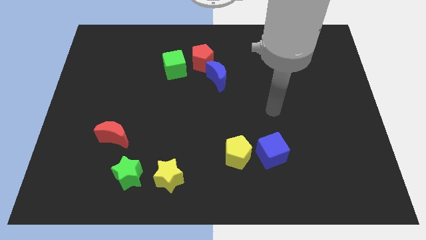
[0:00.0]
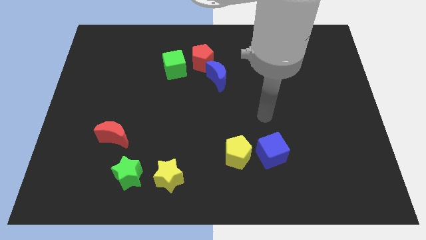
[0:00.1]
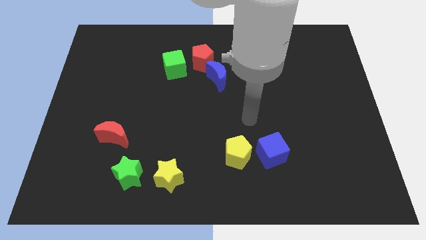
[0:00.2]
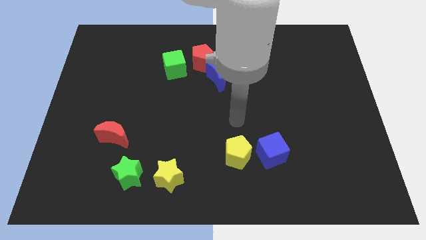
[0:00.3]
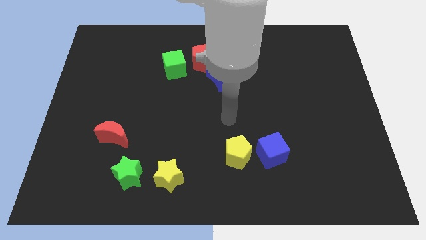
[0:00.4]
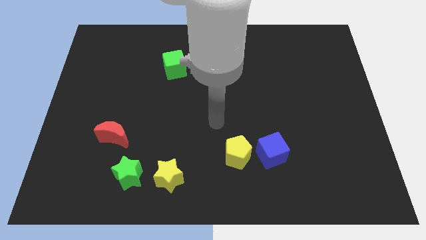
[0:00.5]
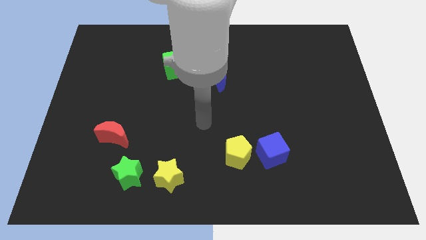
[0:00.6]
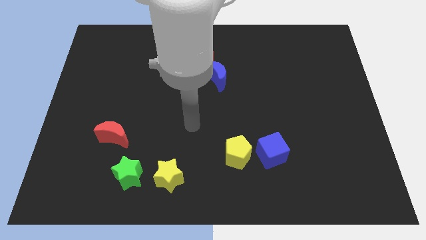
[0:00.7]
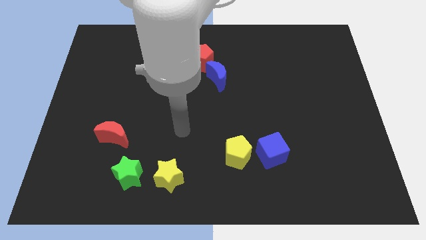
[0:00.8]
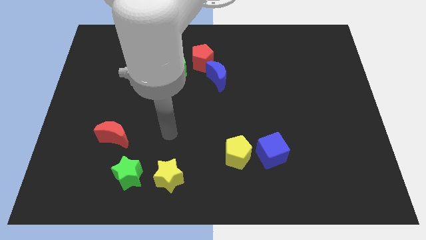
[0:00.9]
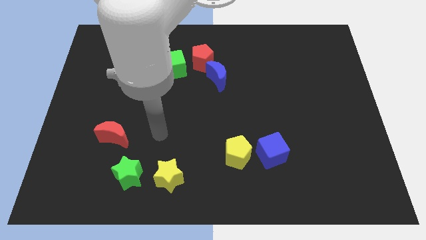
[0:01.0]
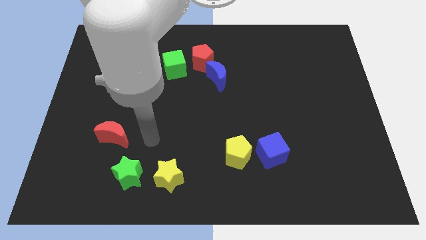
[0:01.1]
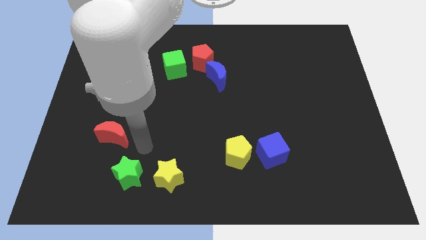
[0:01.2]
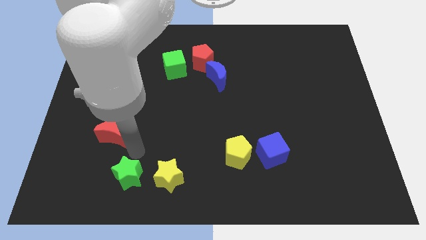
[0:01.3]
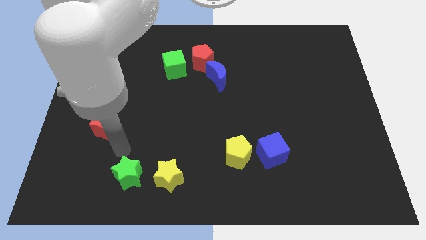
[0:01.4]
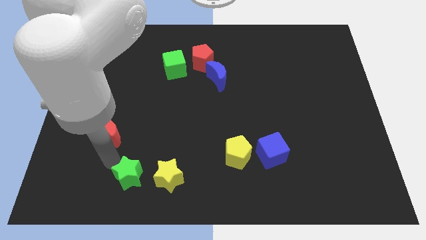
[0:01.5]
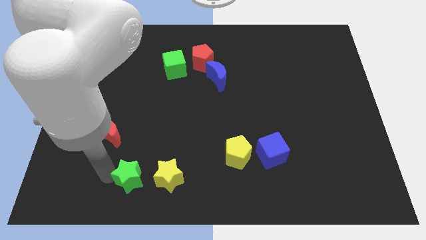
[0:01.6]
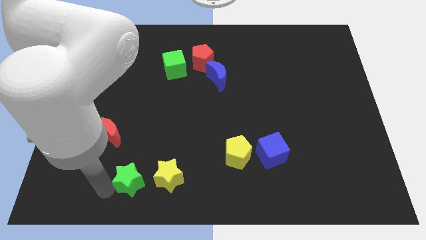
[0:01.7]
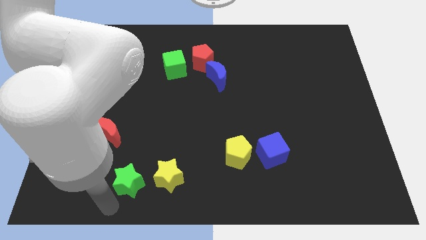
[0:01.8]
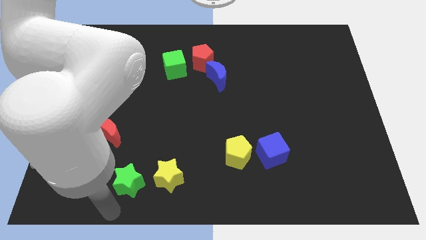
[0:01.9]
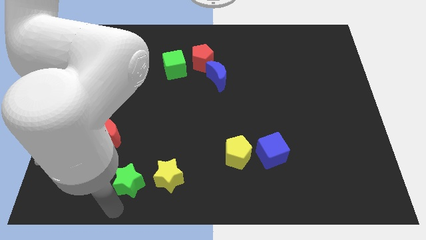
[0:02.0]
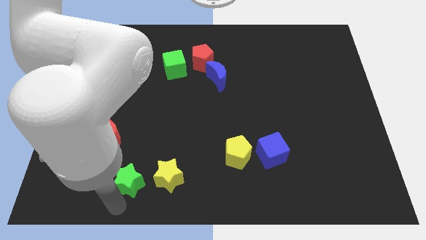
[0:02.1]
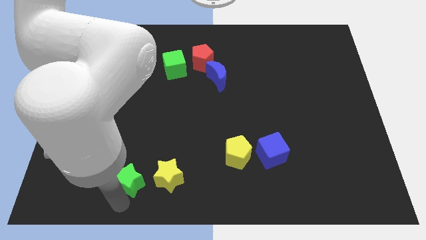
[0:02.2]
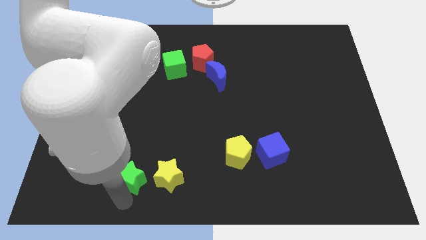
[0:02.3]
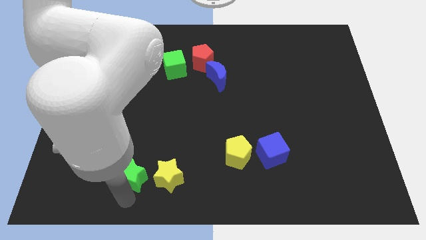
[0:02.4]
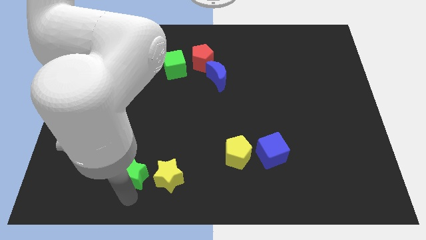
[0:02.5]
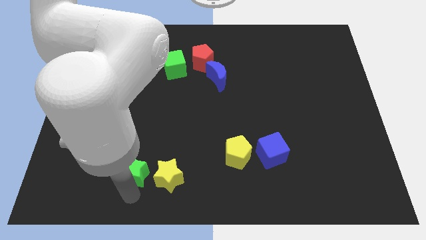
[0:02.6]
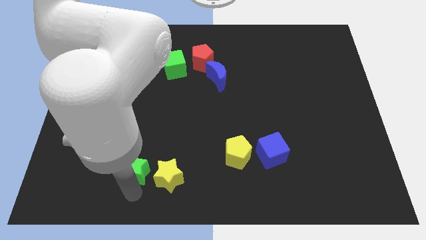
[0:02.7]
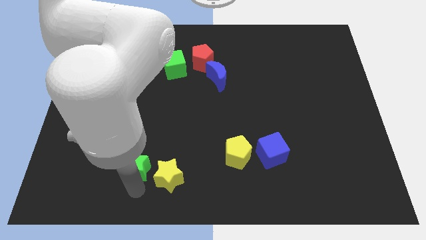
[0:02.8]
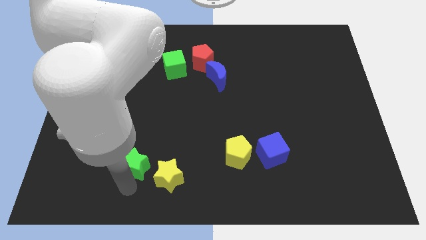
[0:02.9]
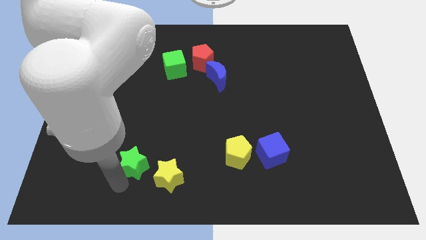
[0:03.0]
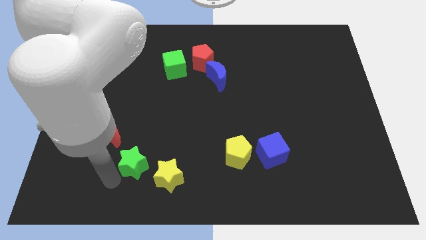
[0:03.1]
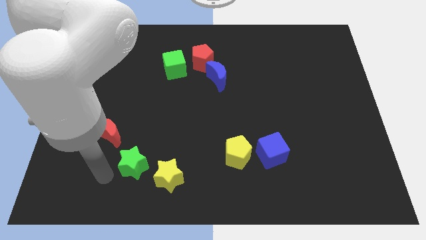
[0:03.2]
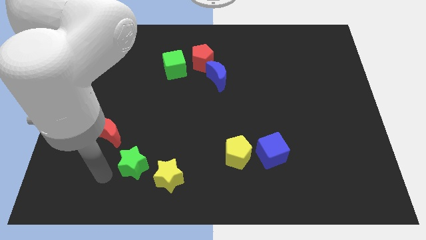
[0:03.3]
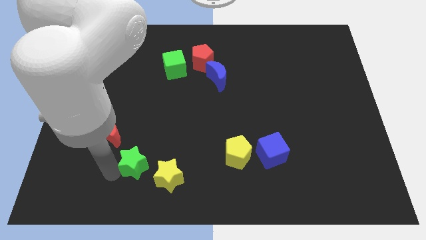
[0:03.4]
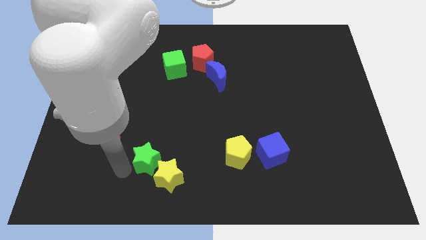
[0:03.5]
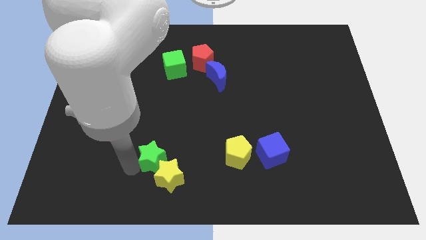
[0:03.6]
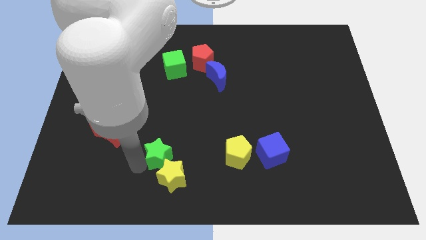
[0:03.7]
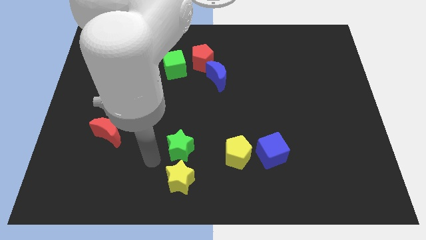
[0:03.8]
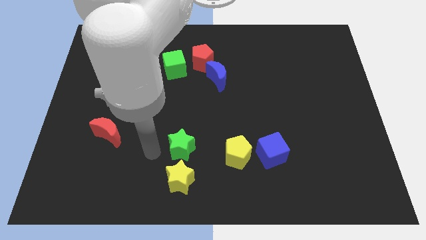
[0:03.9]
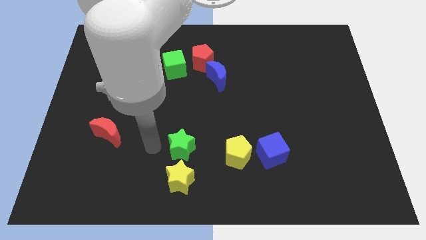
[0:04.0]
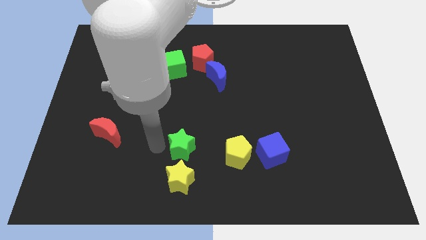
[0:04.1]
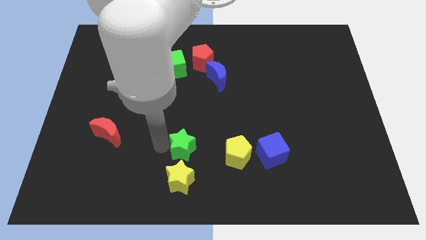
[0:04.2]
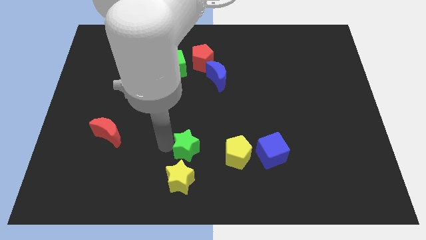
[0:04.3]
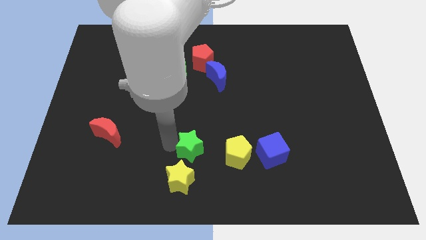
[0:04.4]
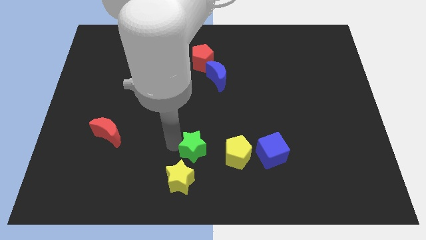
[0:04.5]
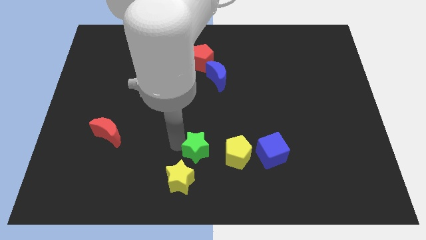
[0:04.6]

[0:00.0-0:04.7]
put the green star to the left side of the blue cube

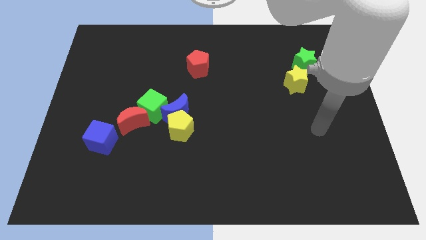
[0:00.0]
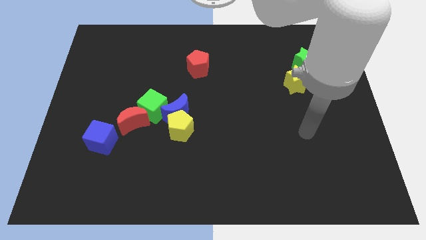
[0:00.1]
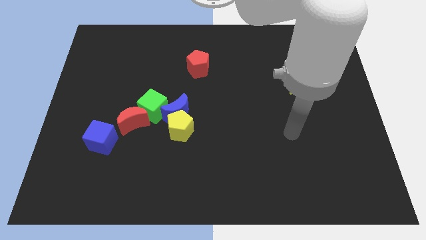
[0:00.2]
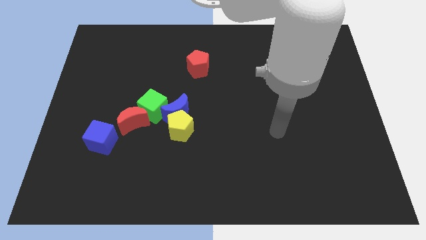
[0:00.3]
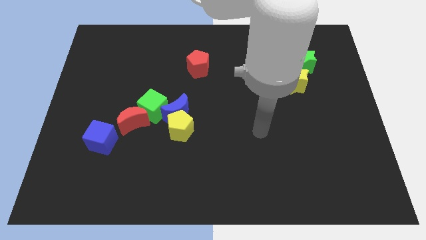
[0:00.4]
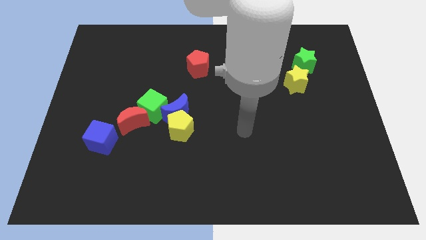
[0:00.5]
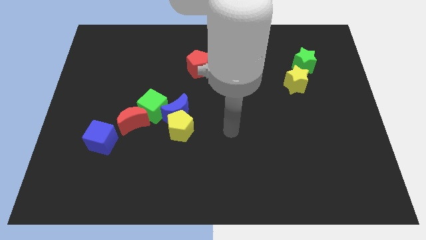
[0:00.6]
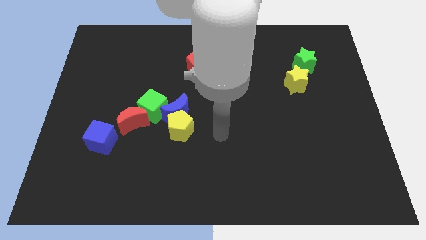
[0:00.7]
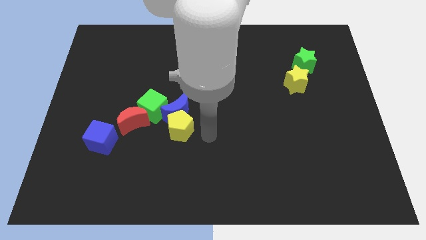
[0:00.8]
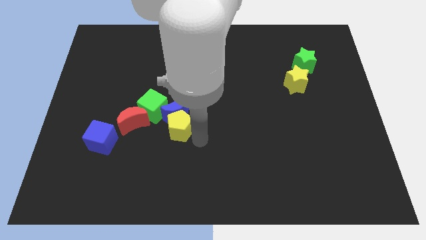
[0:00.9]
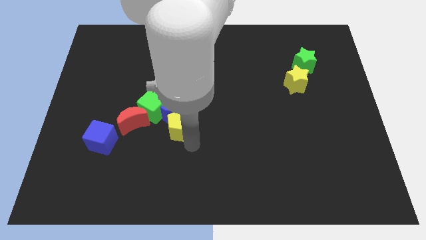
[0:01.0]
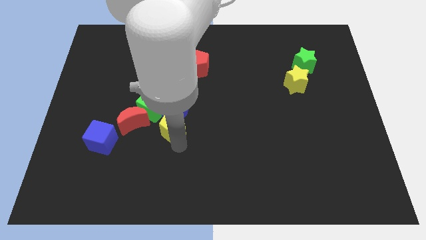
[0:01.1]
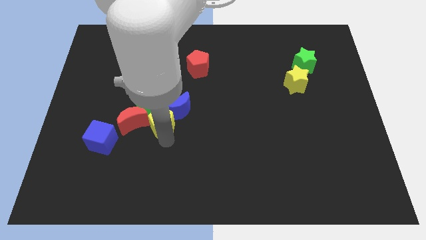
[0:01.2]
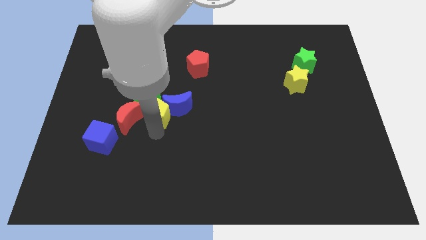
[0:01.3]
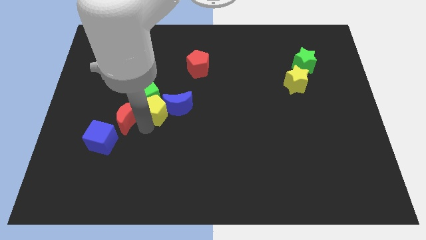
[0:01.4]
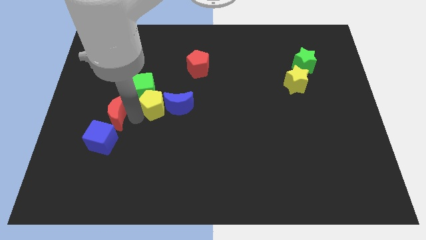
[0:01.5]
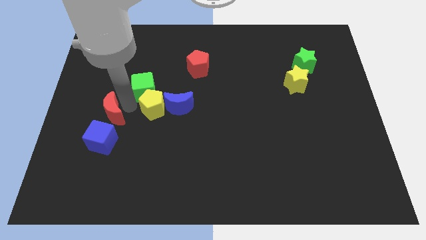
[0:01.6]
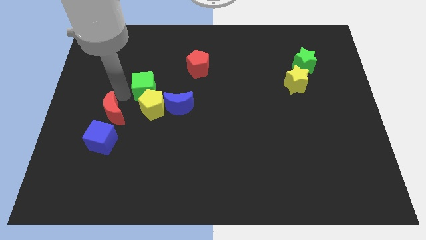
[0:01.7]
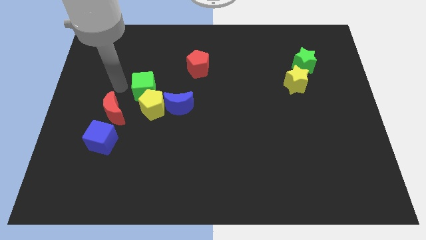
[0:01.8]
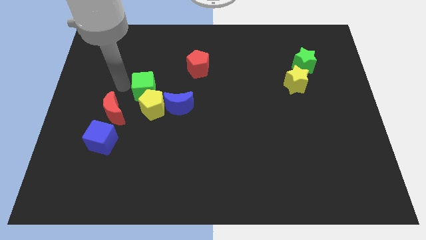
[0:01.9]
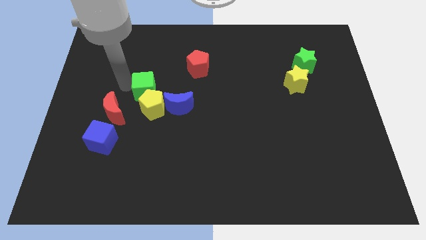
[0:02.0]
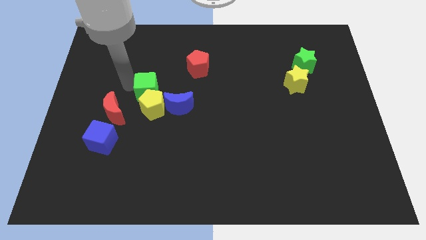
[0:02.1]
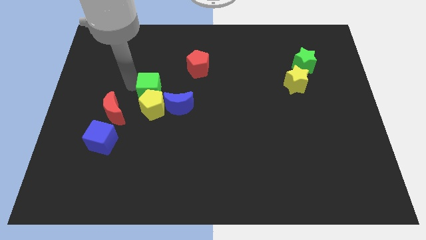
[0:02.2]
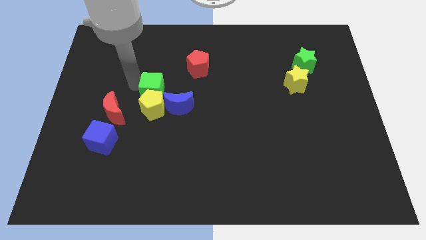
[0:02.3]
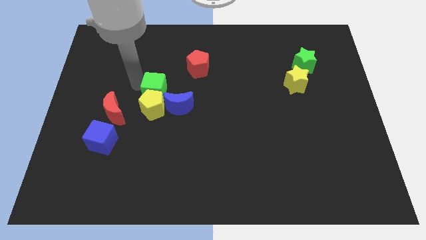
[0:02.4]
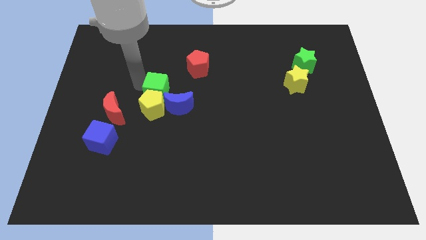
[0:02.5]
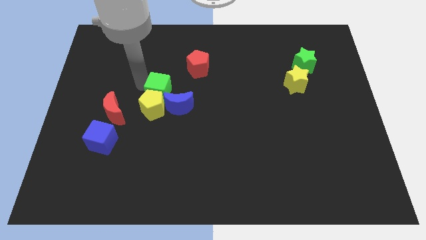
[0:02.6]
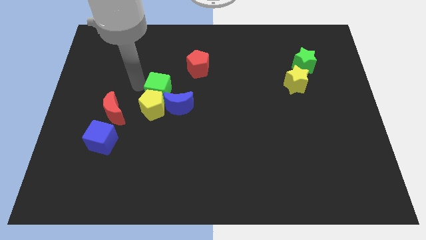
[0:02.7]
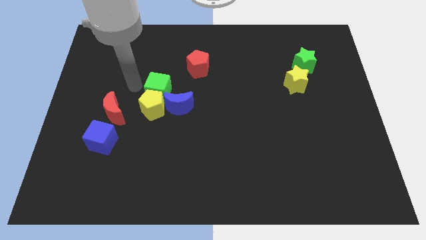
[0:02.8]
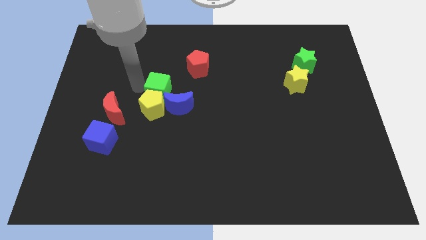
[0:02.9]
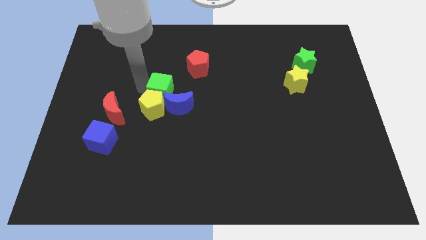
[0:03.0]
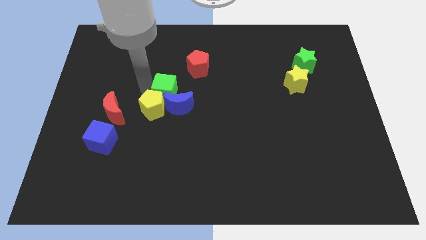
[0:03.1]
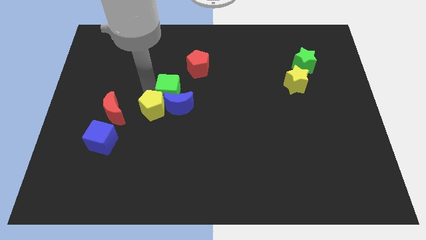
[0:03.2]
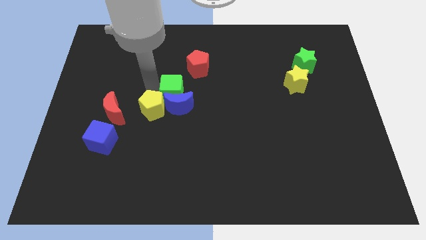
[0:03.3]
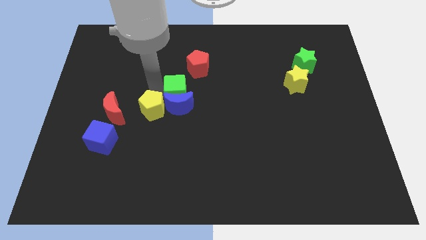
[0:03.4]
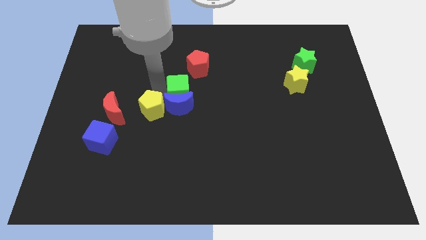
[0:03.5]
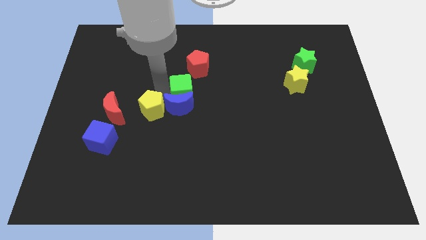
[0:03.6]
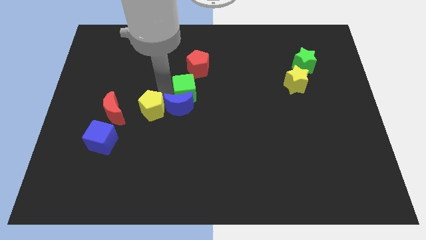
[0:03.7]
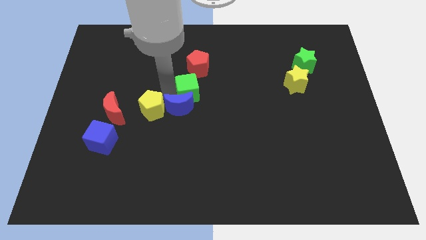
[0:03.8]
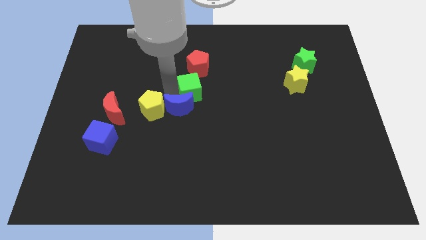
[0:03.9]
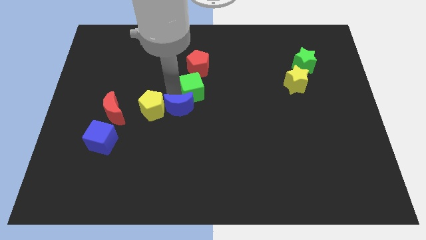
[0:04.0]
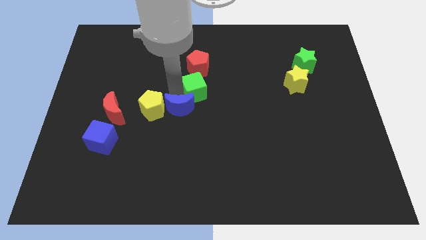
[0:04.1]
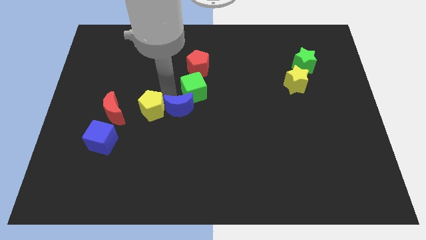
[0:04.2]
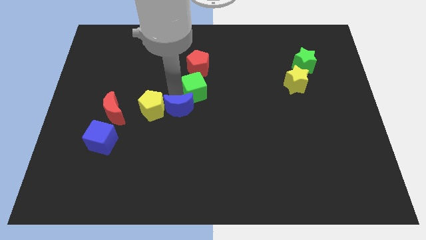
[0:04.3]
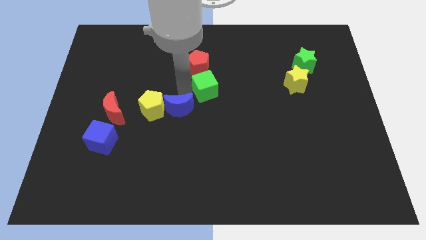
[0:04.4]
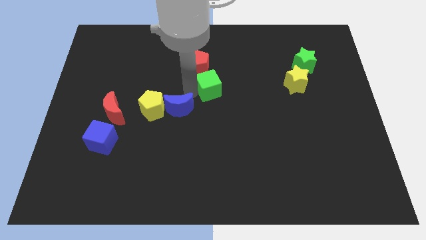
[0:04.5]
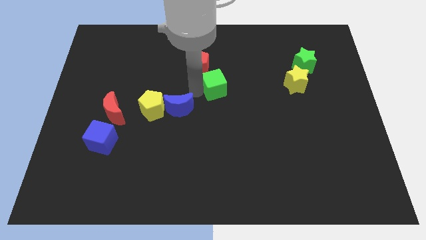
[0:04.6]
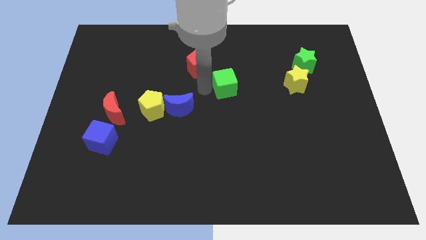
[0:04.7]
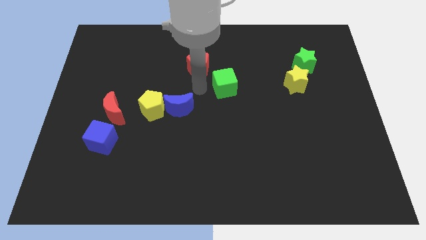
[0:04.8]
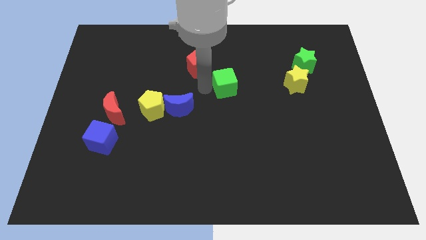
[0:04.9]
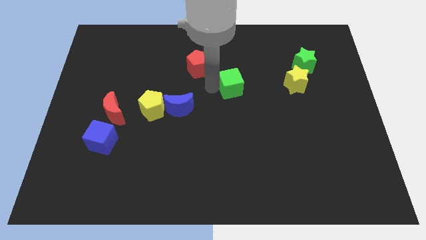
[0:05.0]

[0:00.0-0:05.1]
push the green cube to the left side of the yellow star
